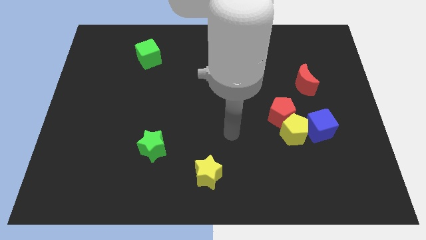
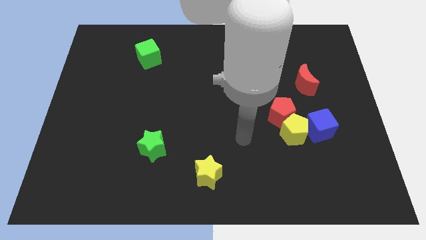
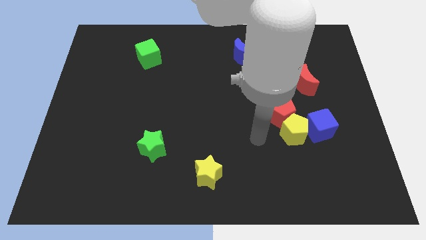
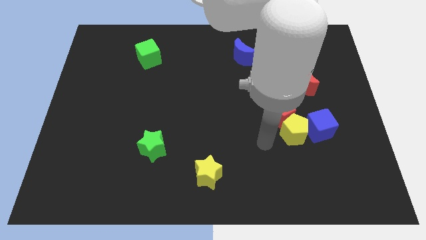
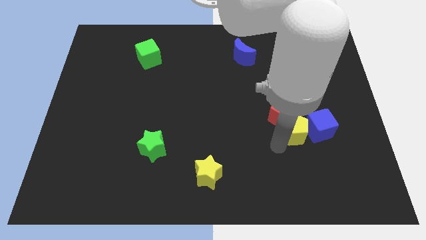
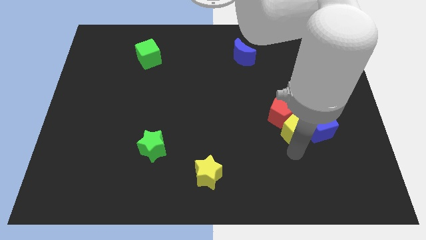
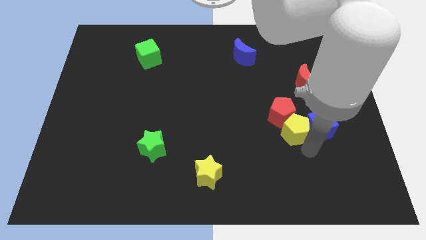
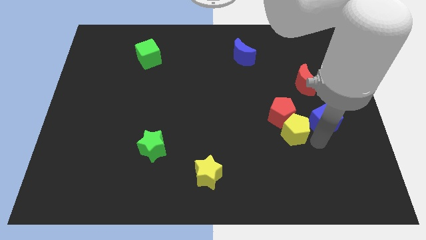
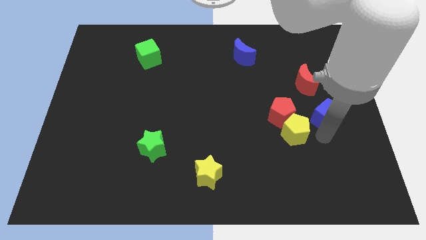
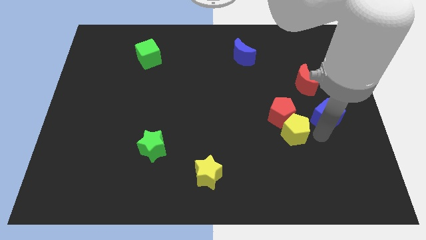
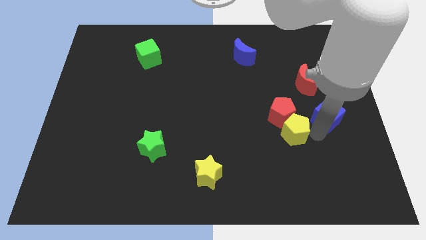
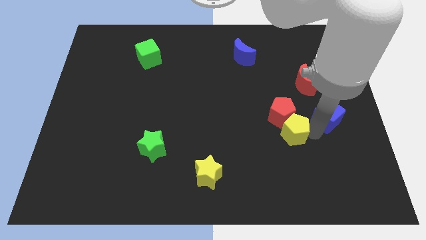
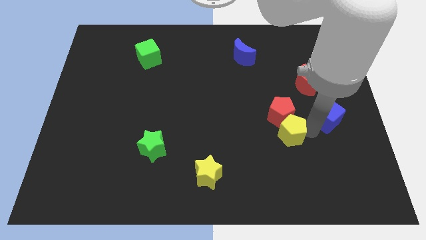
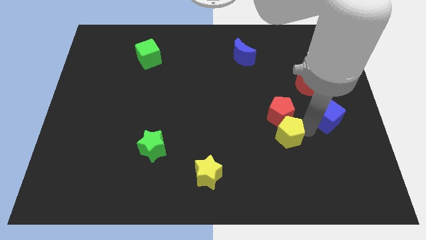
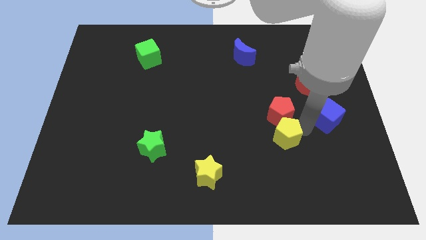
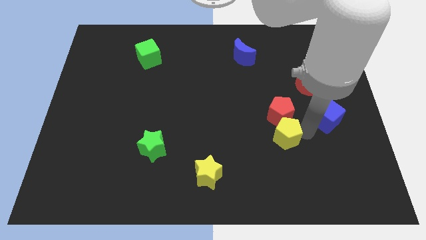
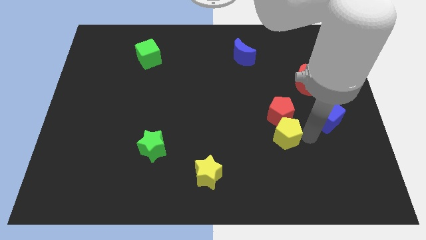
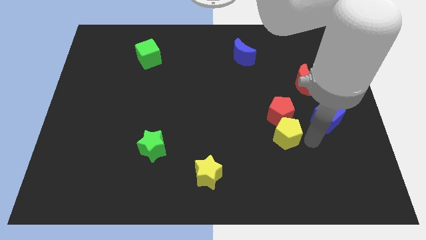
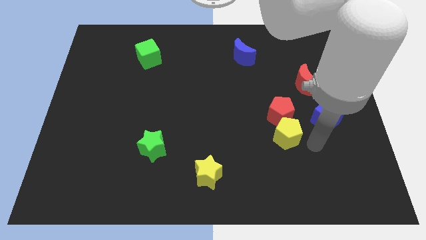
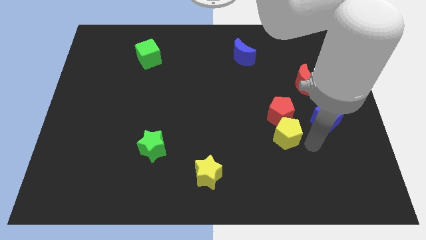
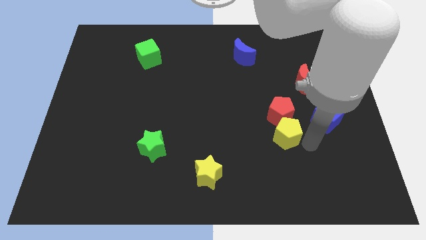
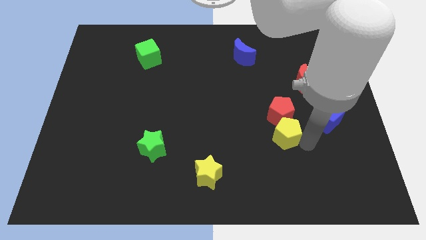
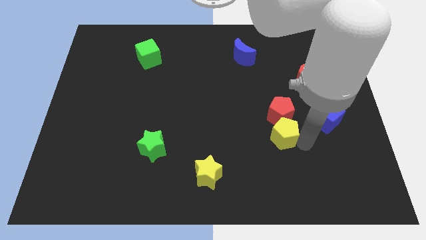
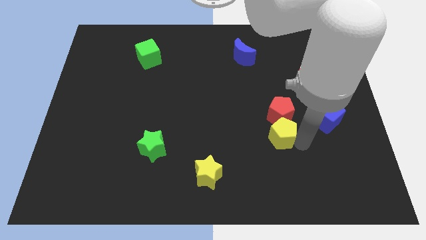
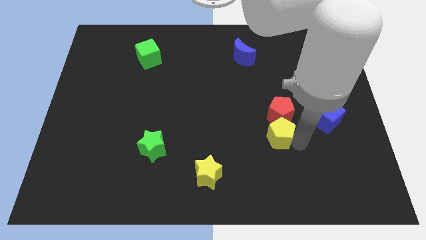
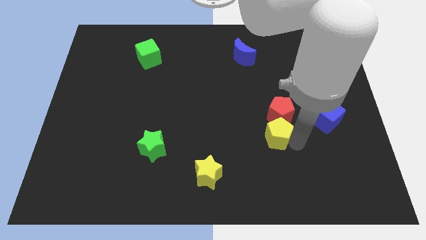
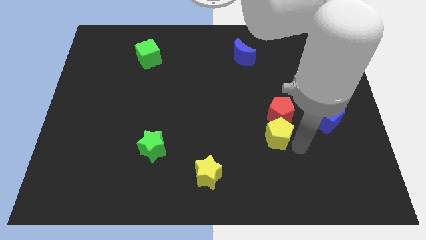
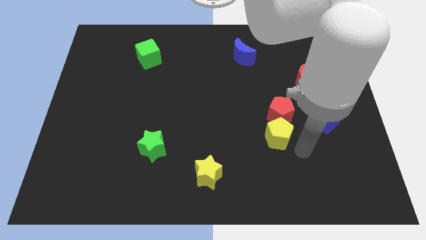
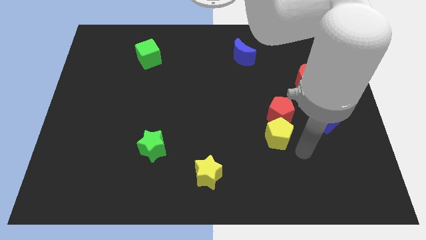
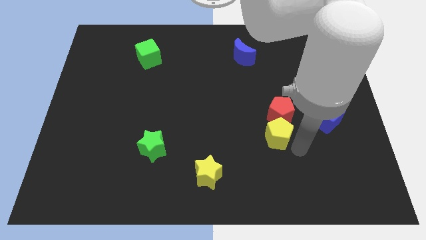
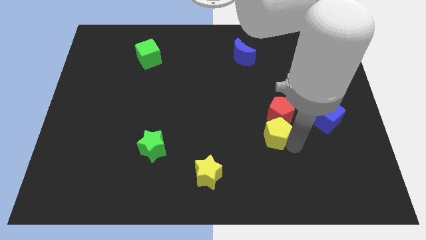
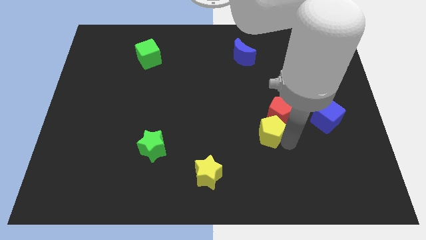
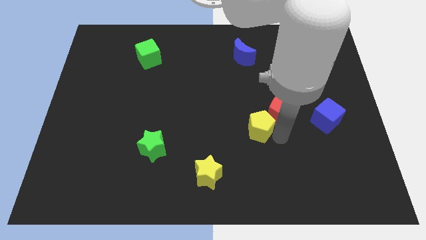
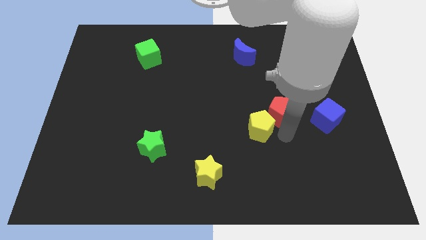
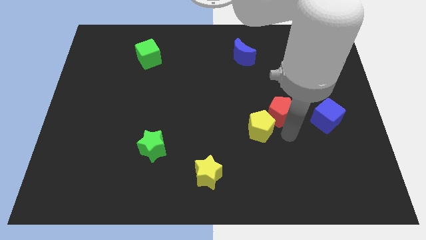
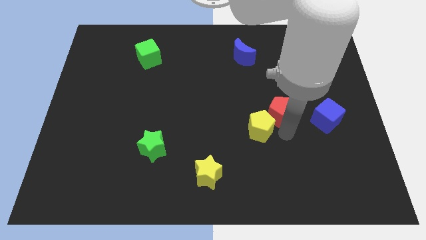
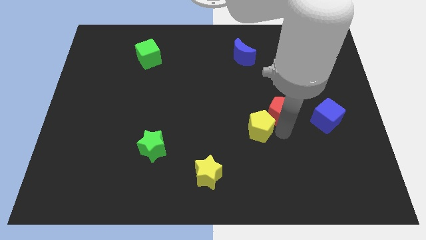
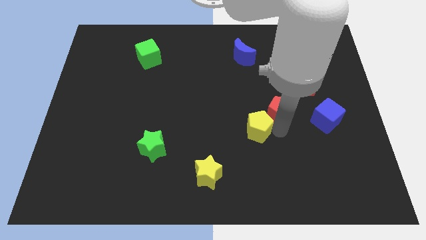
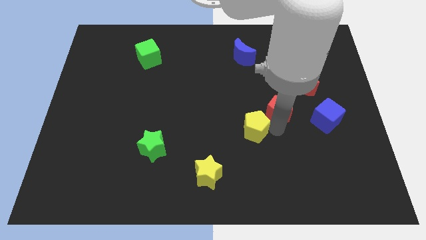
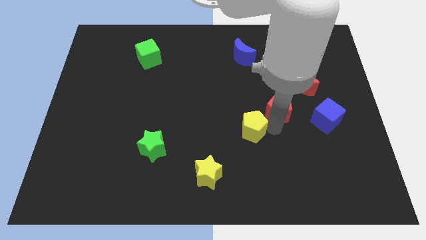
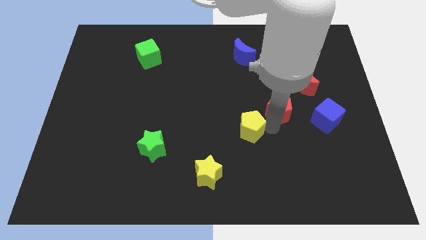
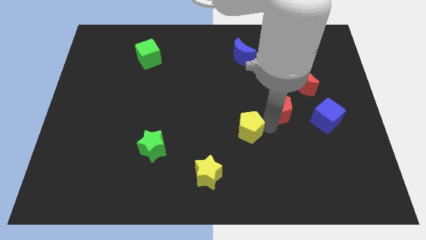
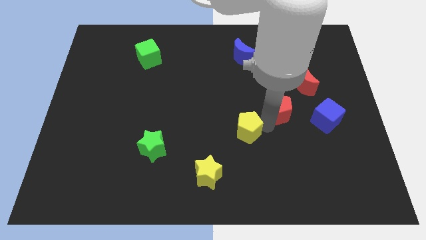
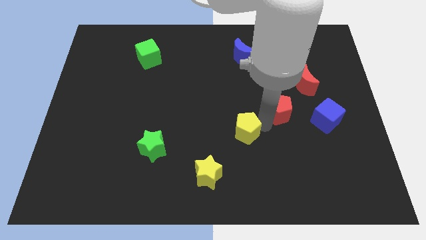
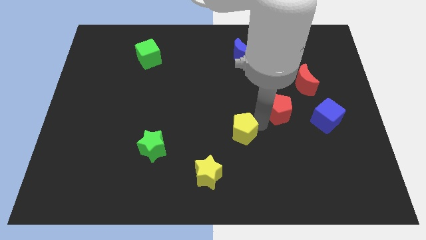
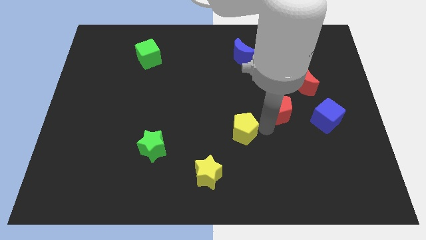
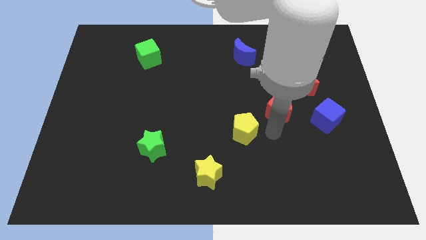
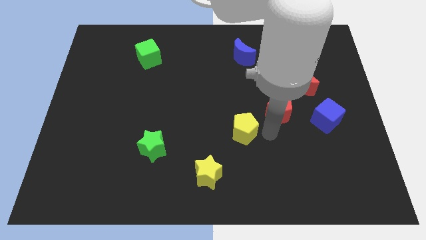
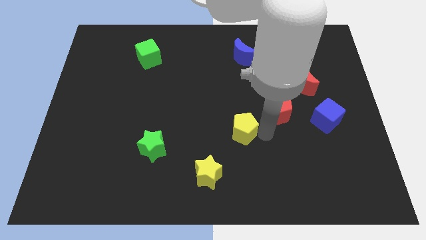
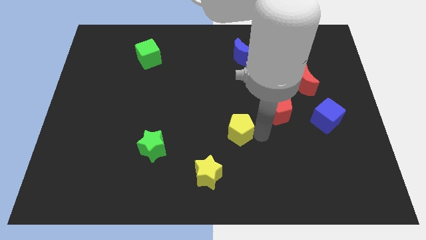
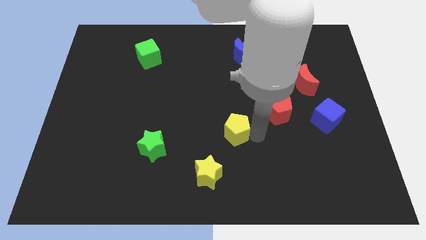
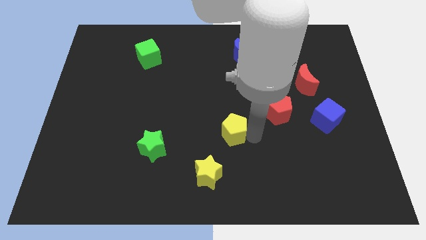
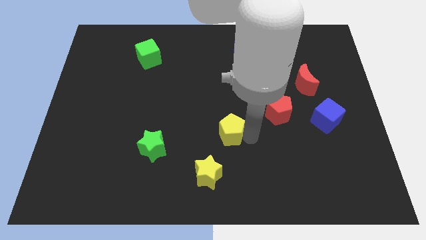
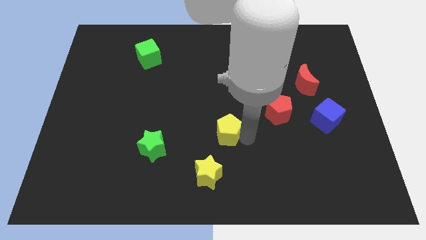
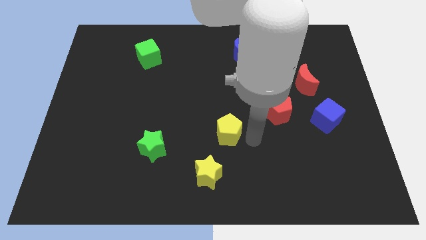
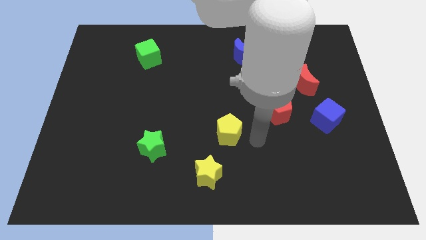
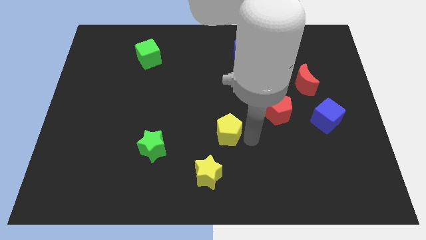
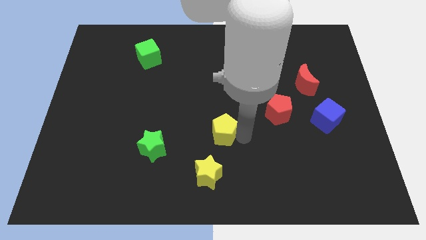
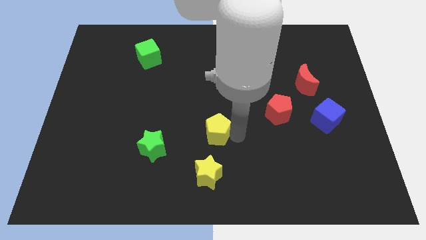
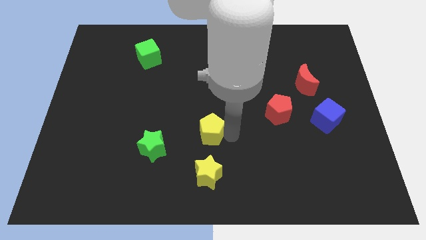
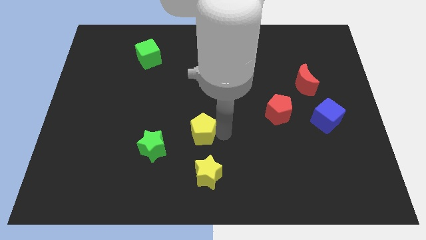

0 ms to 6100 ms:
push the yellow pentagon left

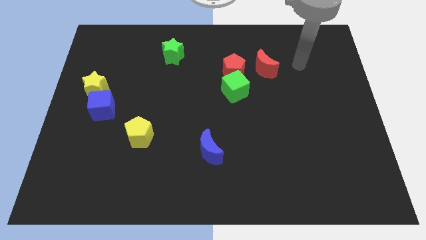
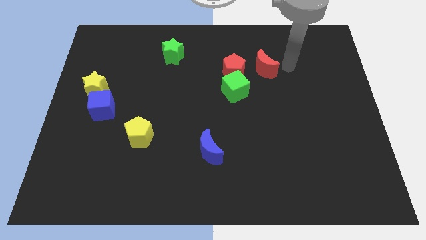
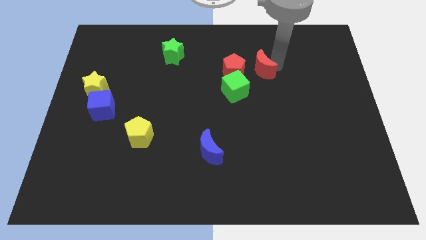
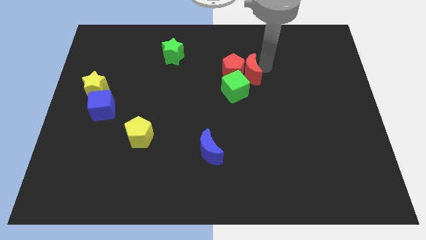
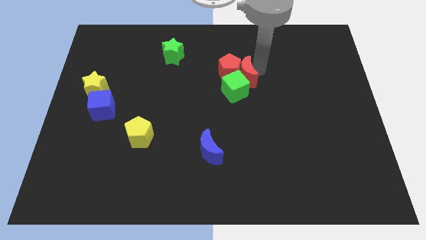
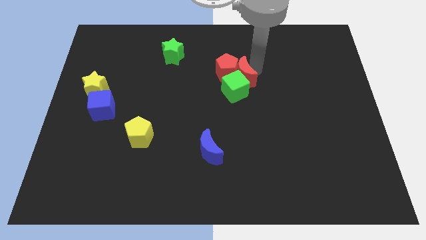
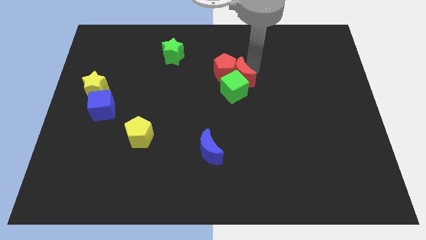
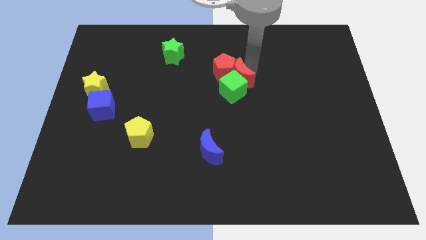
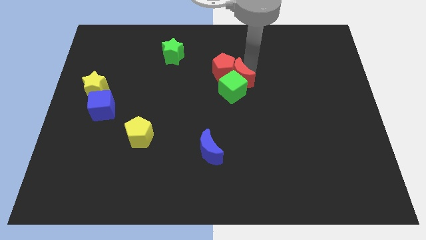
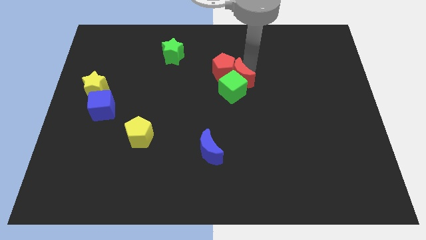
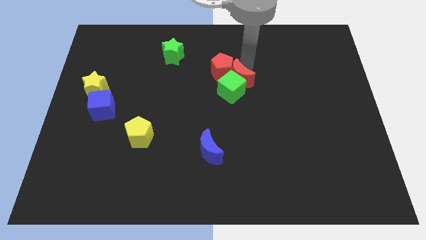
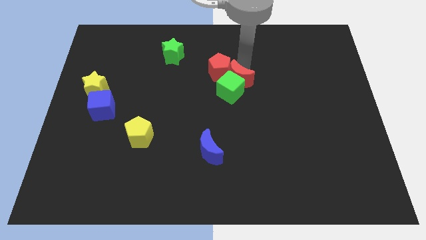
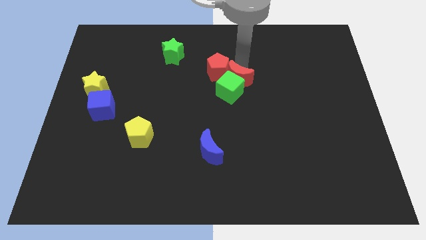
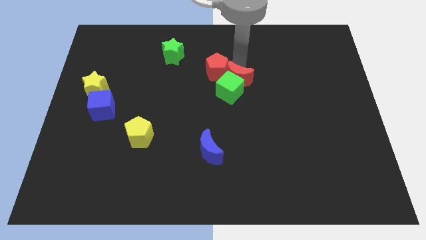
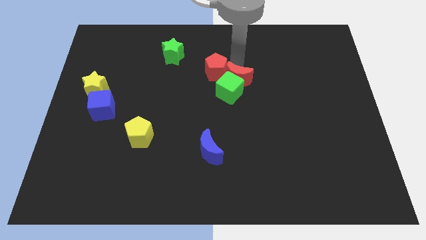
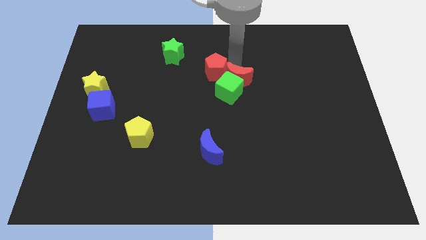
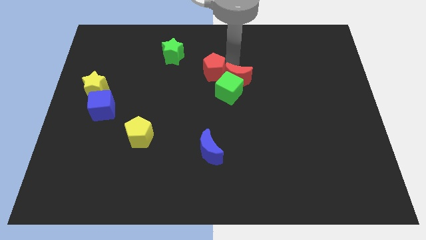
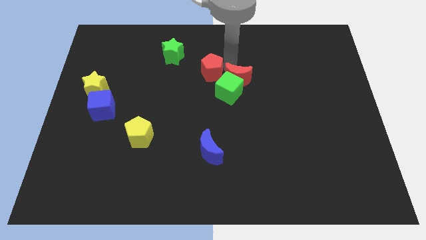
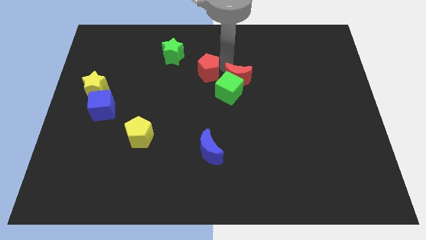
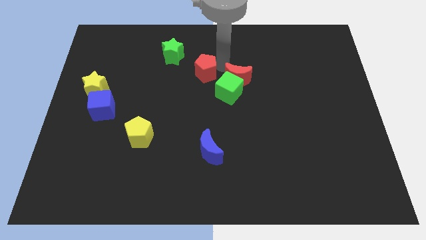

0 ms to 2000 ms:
move the red pentagon somewhat left
